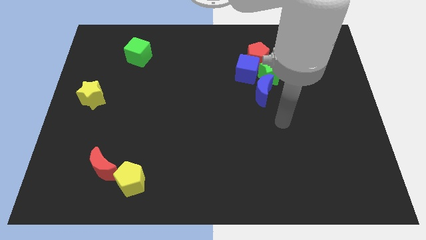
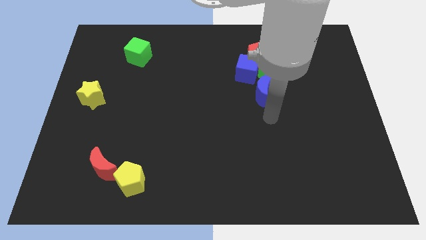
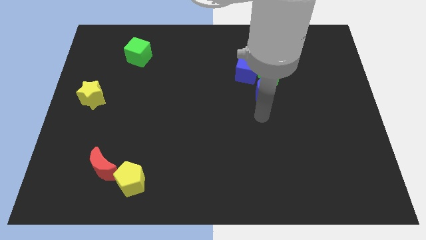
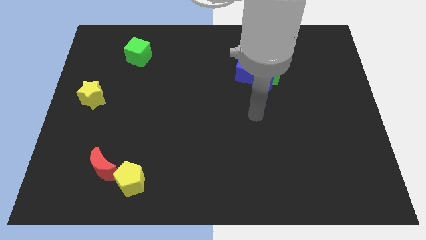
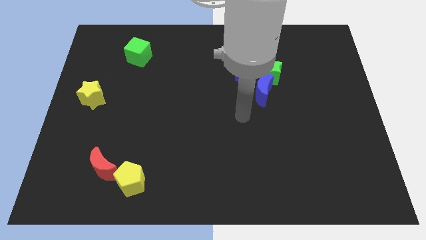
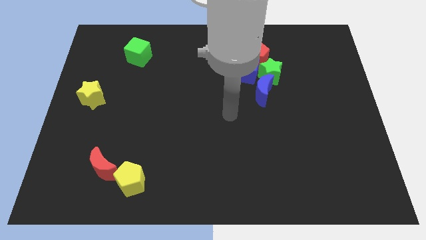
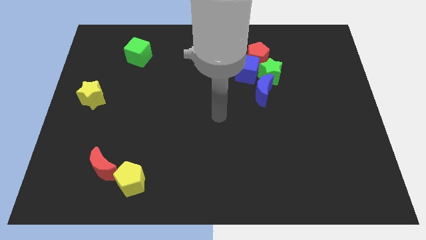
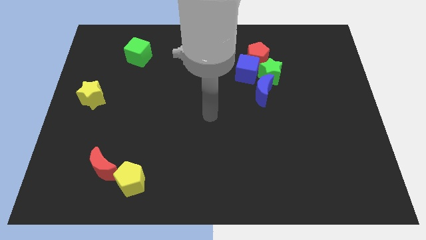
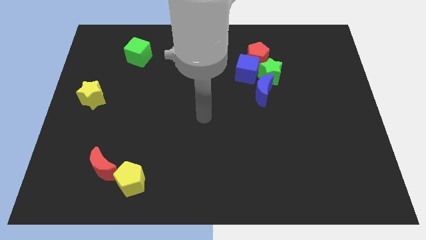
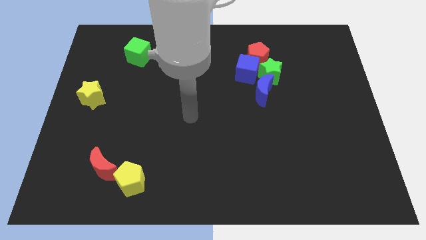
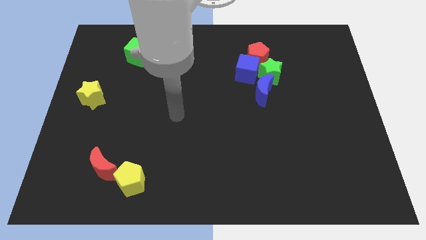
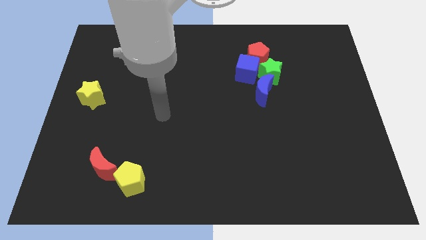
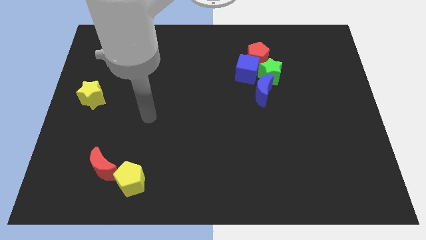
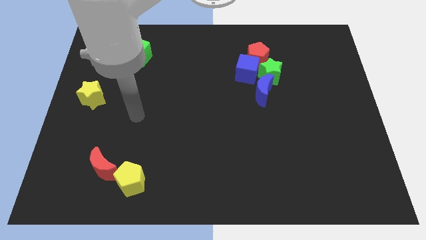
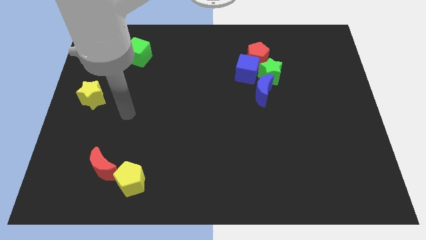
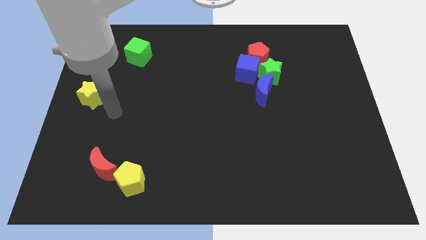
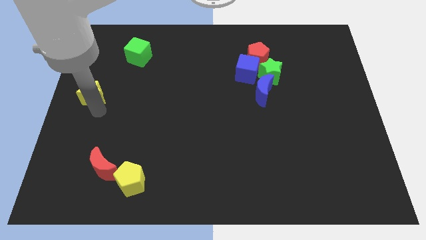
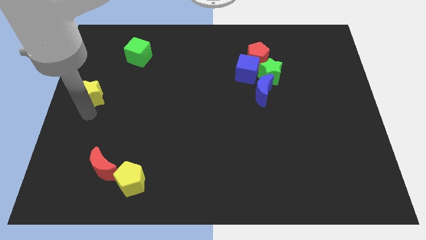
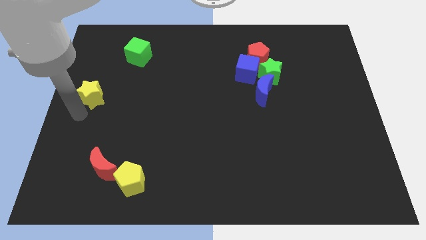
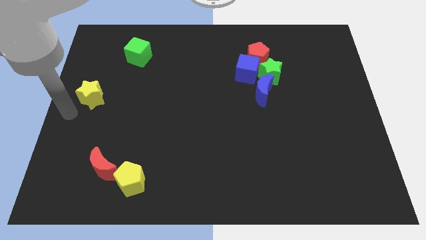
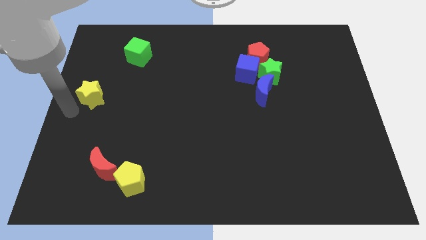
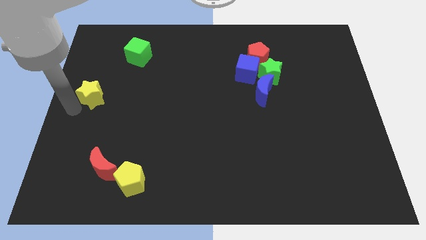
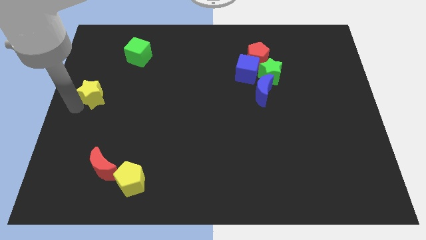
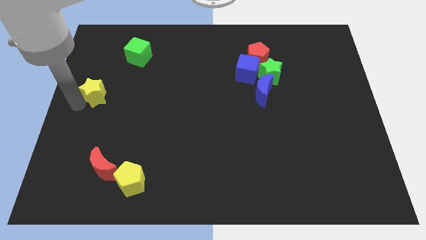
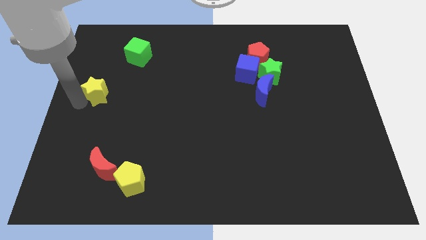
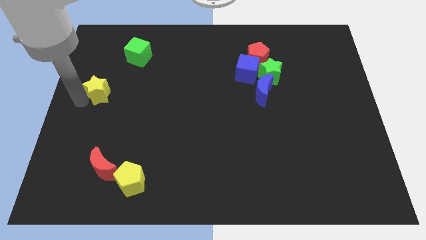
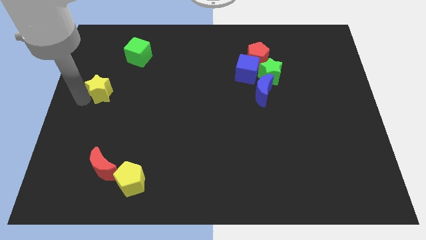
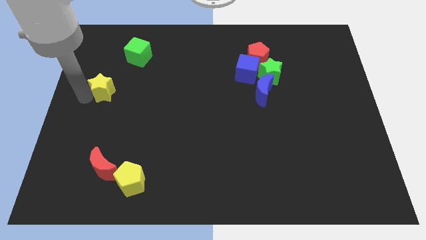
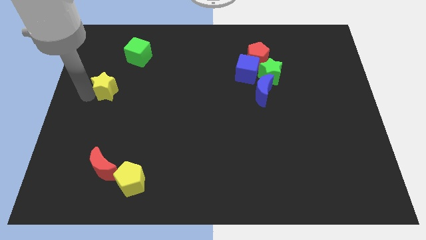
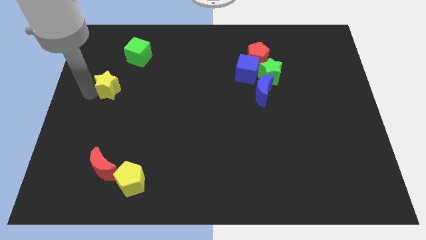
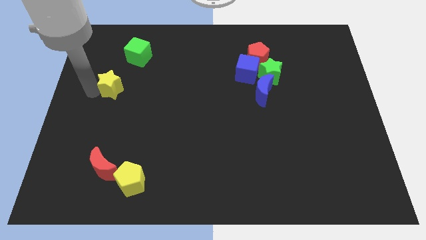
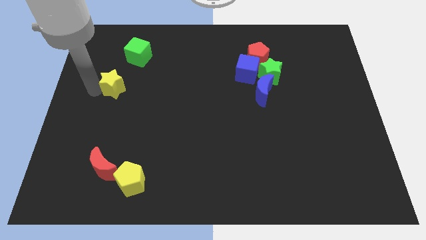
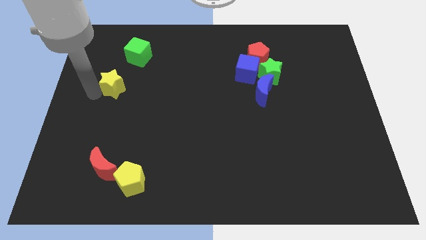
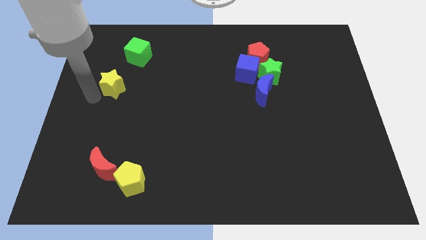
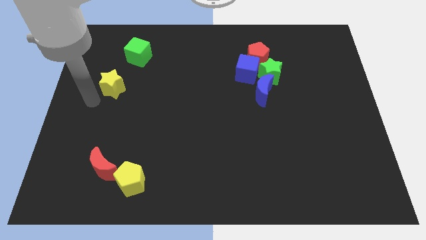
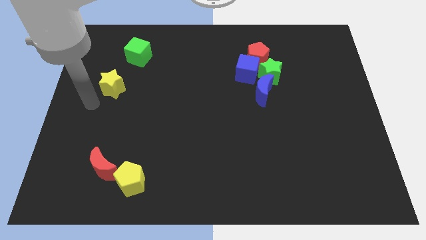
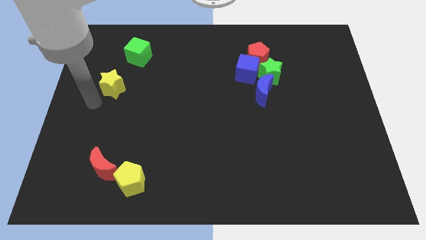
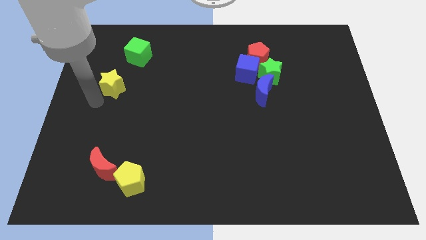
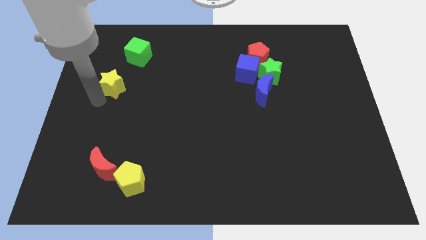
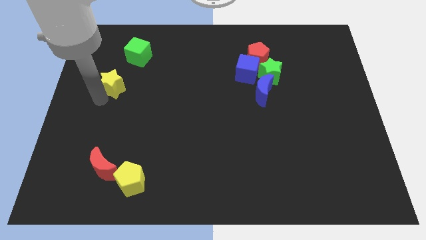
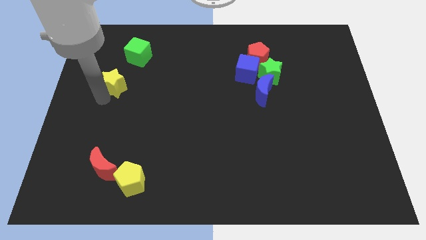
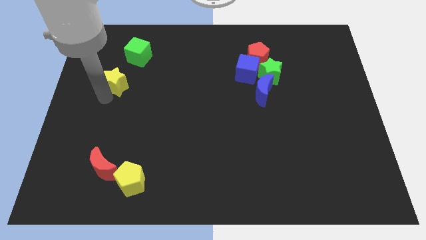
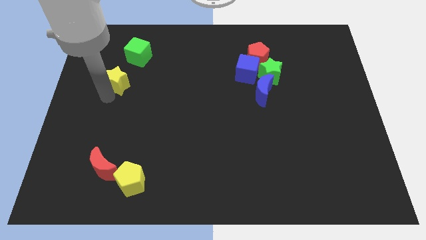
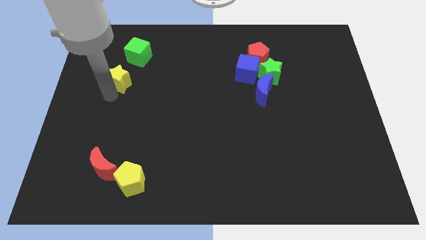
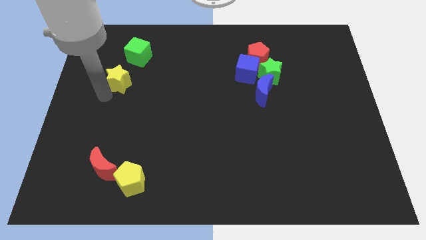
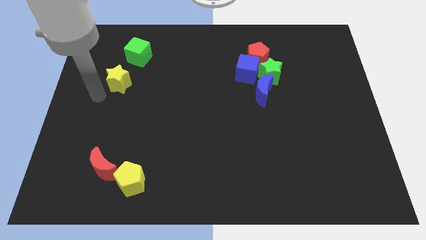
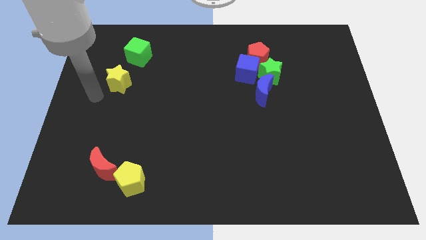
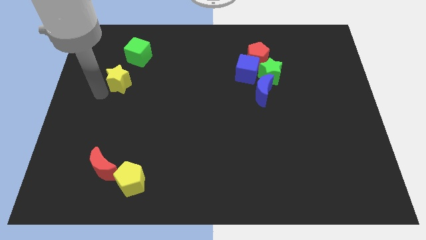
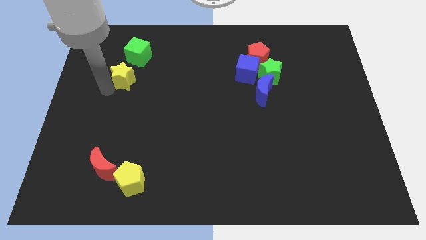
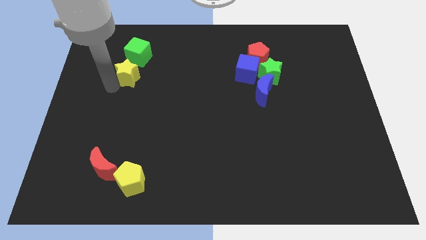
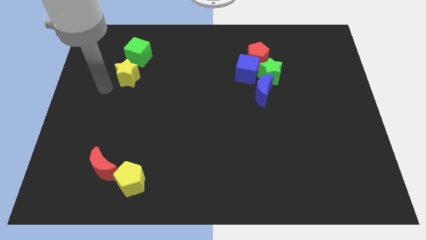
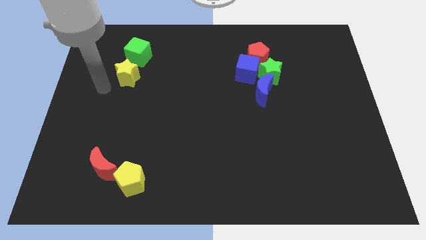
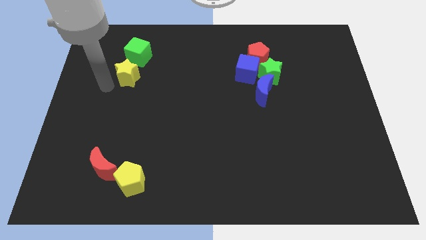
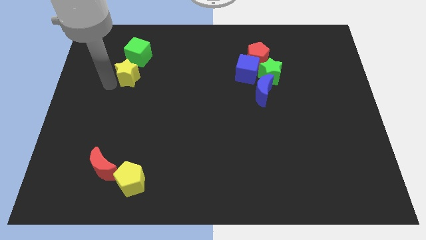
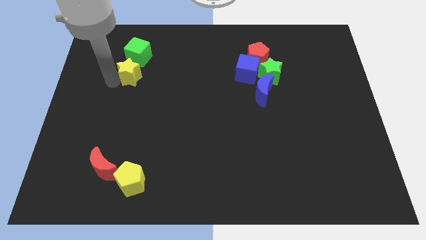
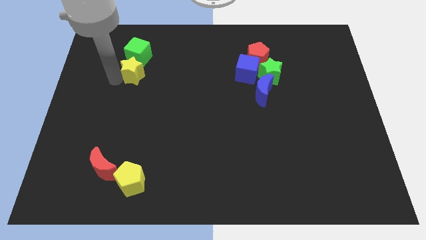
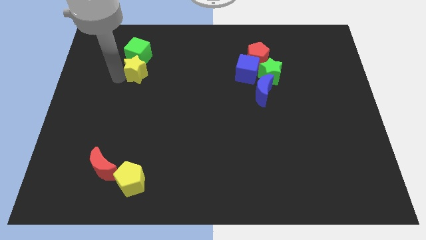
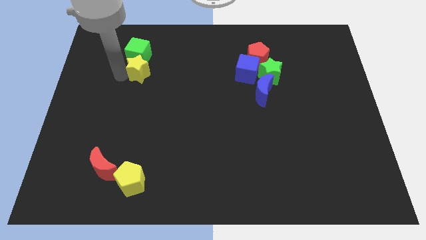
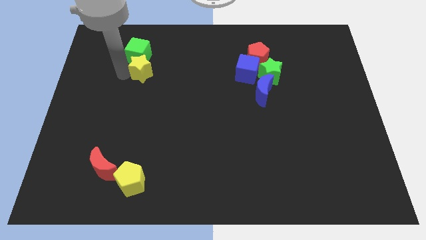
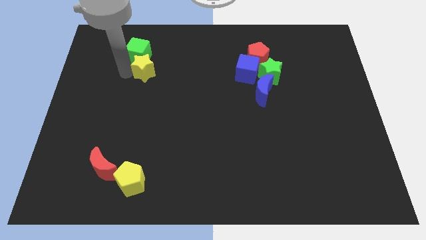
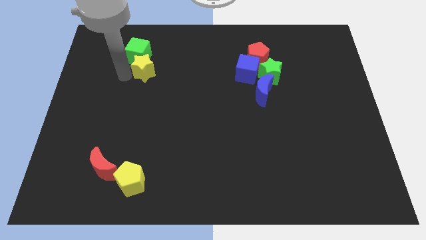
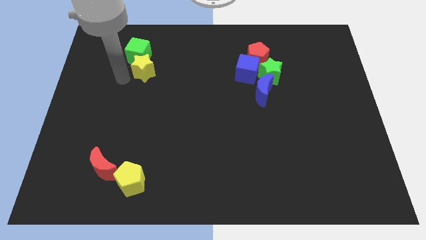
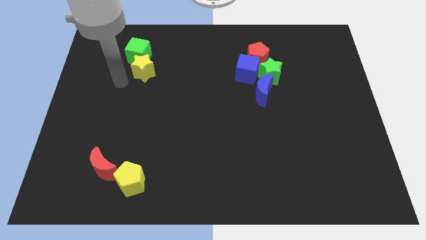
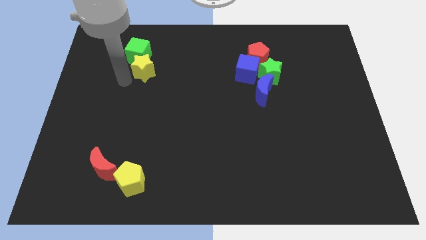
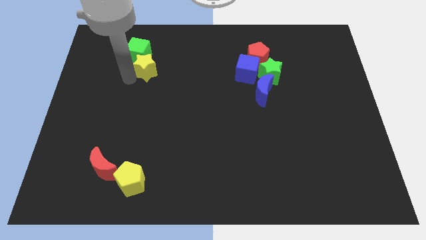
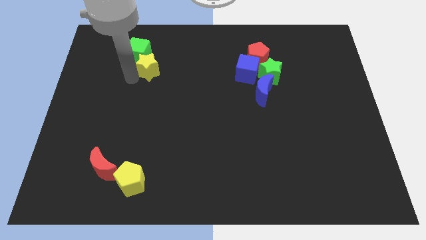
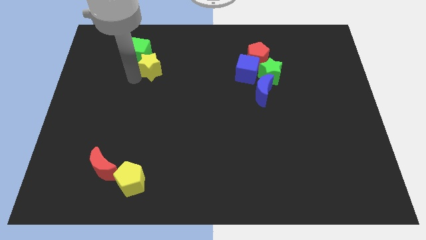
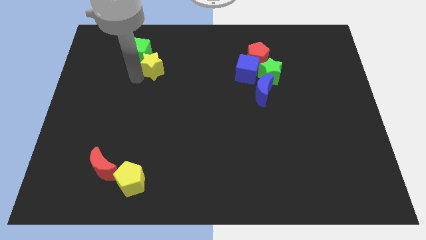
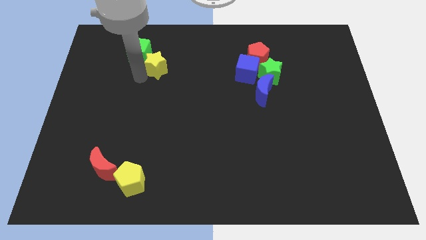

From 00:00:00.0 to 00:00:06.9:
move the yellow star right of the green cube

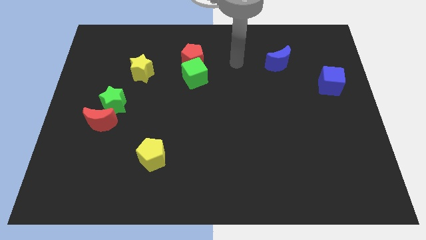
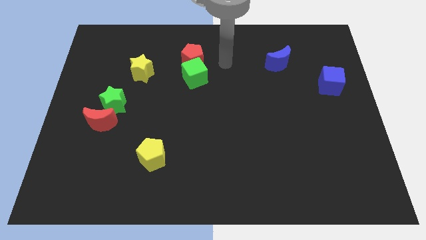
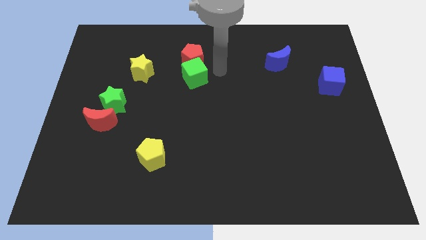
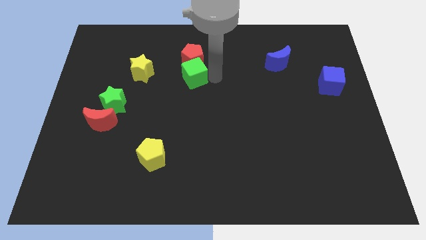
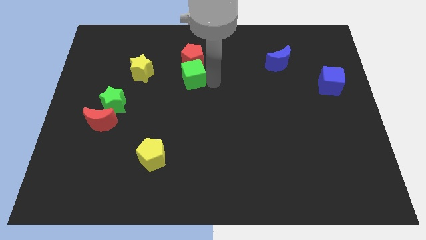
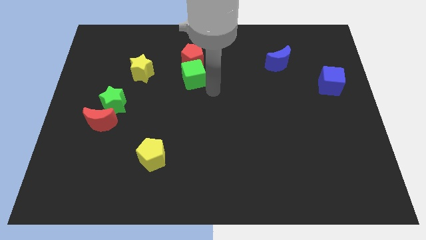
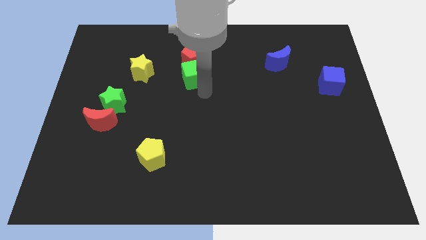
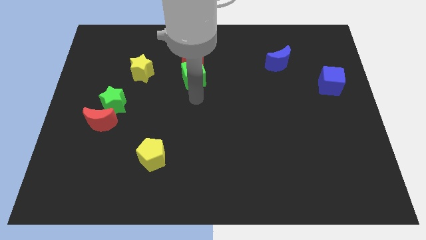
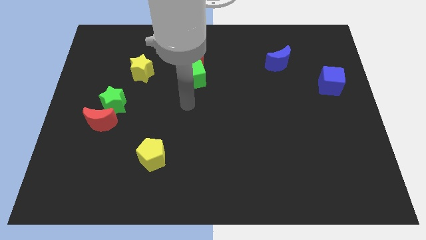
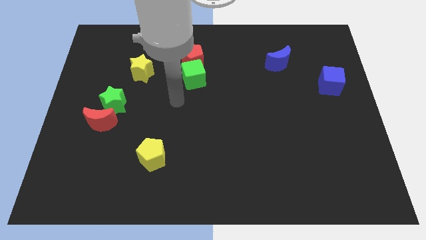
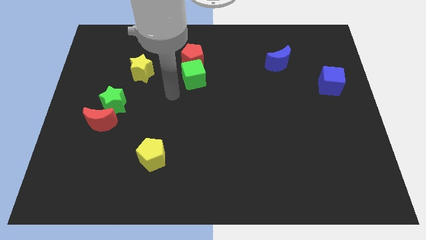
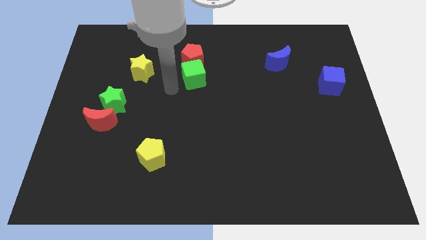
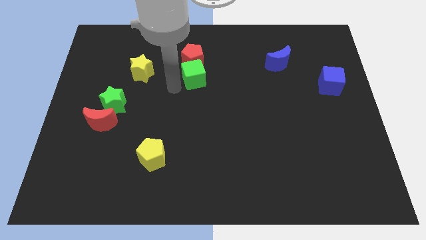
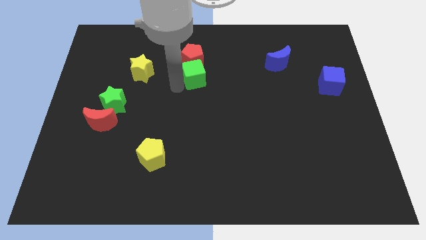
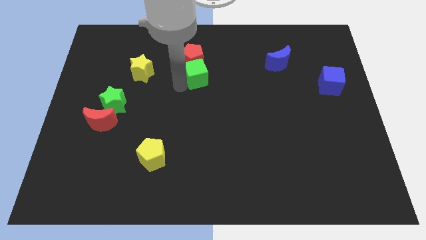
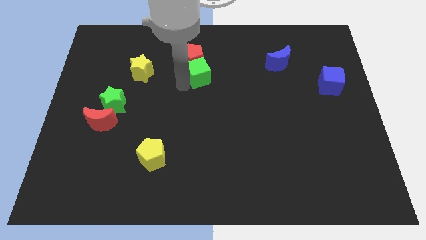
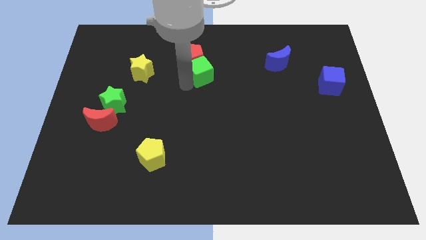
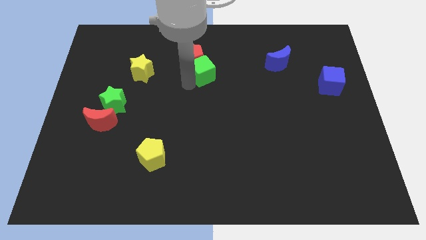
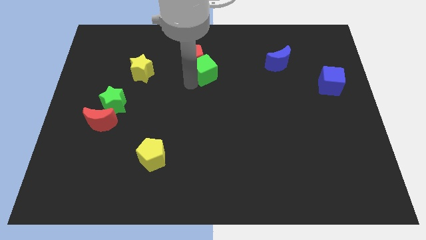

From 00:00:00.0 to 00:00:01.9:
slide the green cube right of the red pentagon
